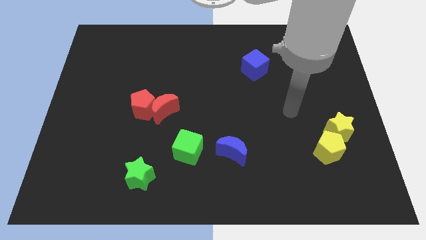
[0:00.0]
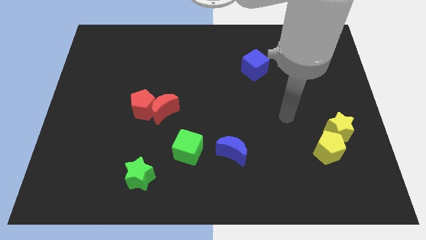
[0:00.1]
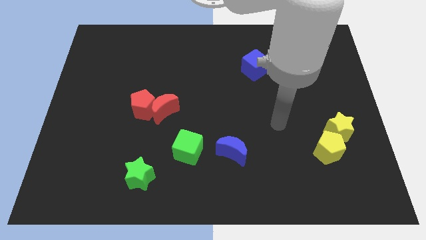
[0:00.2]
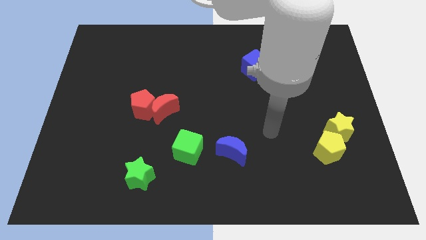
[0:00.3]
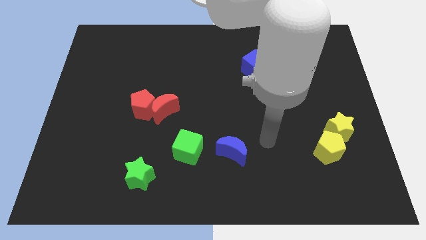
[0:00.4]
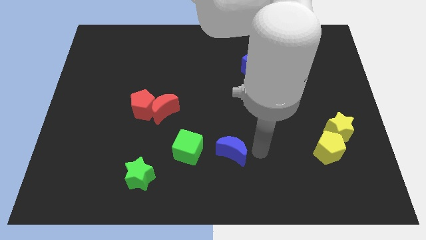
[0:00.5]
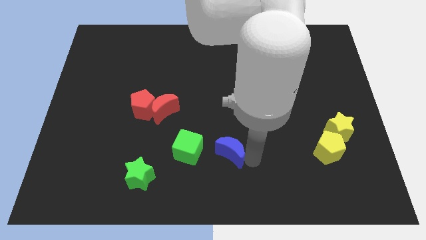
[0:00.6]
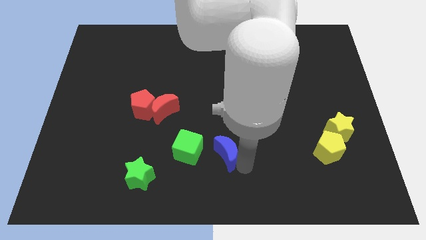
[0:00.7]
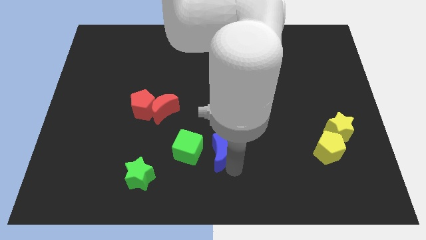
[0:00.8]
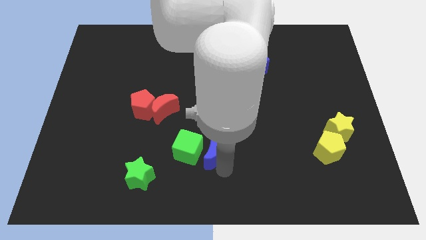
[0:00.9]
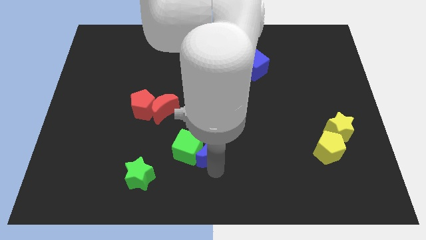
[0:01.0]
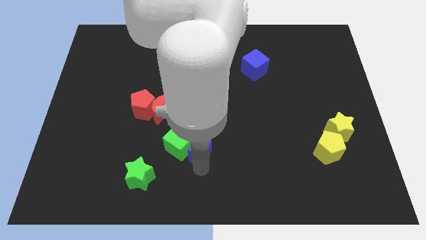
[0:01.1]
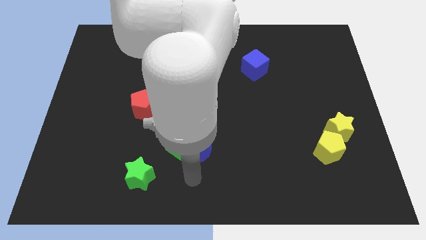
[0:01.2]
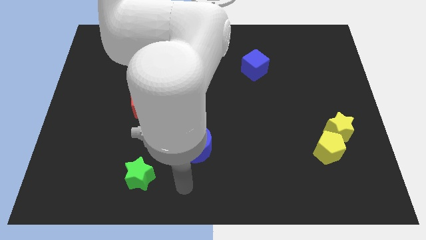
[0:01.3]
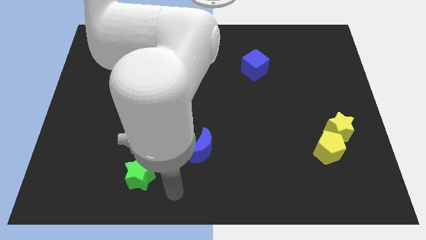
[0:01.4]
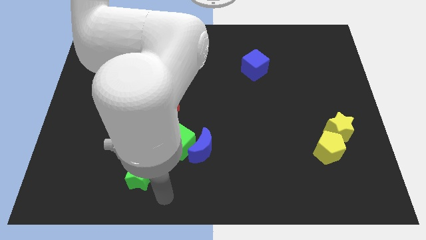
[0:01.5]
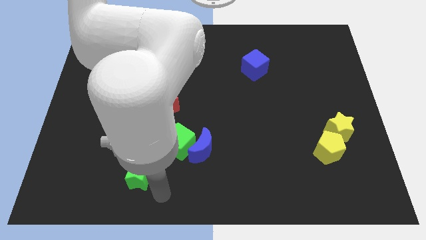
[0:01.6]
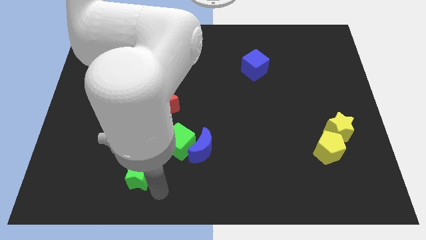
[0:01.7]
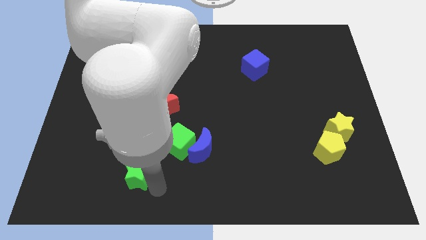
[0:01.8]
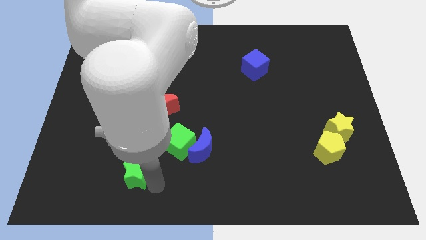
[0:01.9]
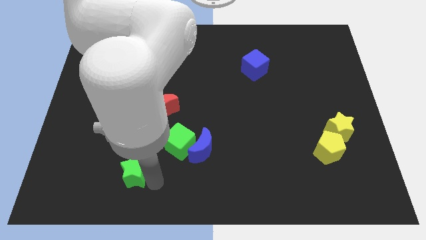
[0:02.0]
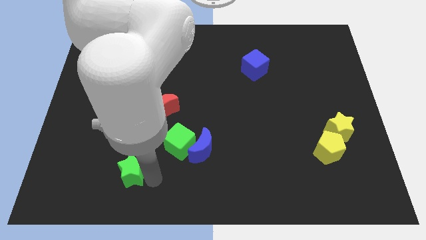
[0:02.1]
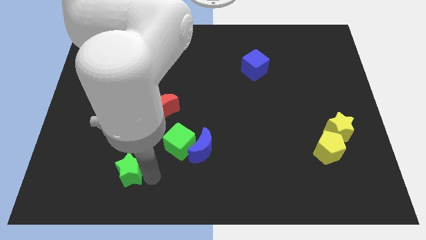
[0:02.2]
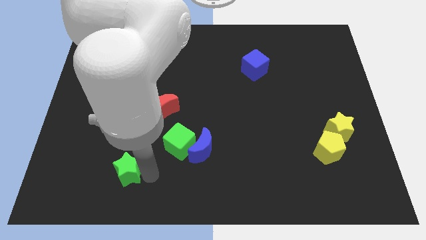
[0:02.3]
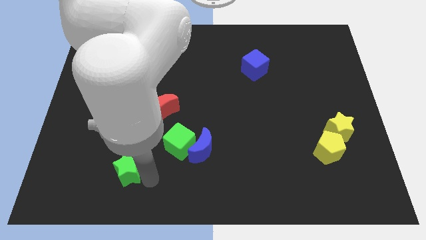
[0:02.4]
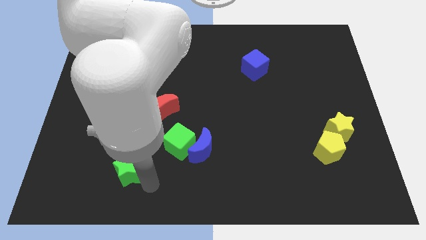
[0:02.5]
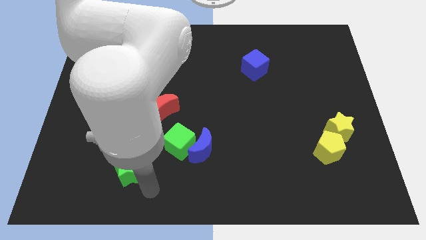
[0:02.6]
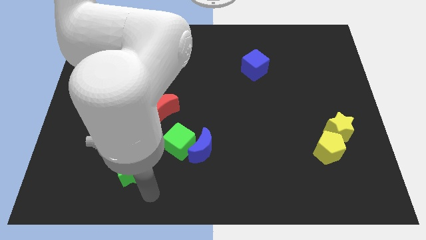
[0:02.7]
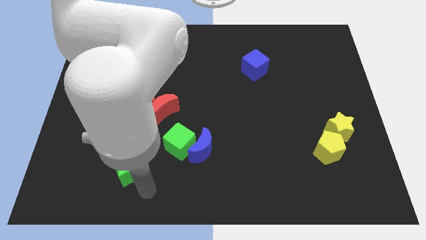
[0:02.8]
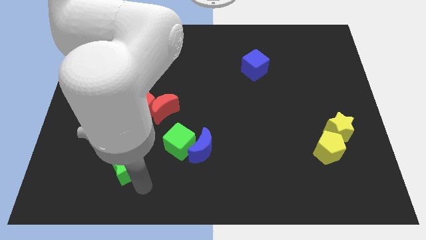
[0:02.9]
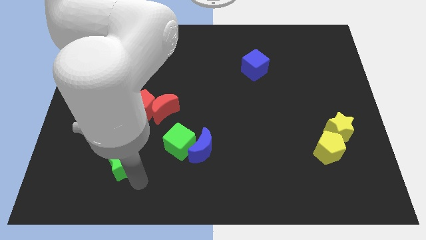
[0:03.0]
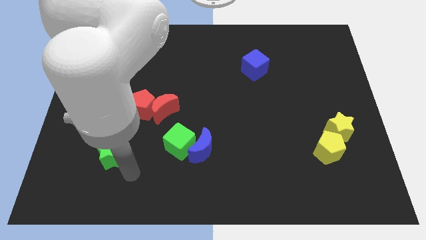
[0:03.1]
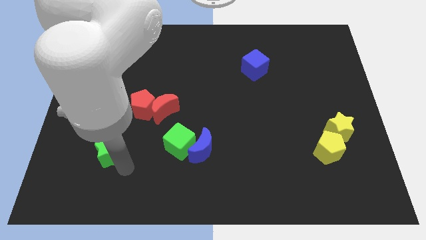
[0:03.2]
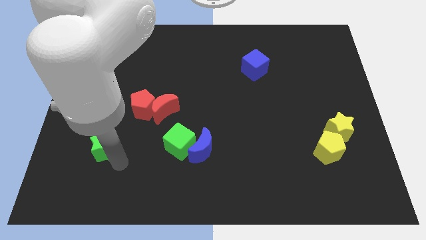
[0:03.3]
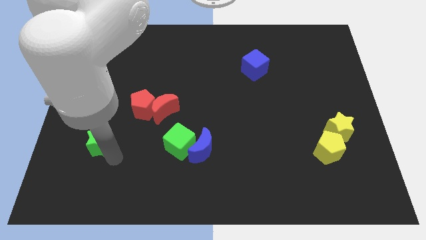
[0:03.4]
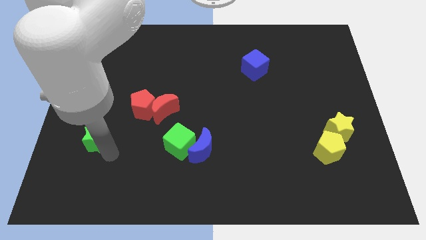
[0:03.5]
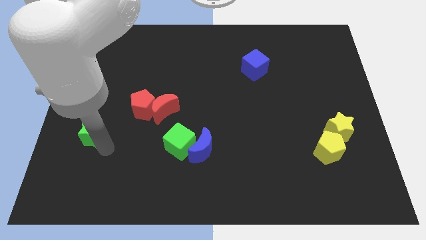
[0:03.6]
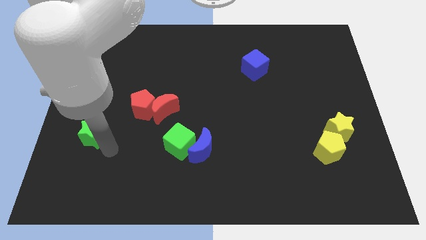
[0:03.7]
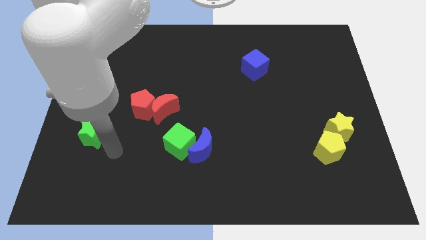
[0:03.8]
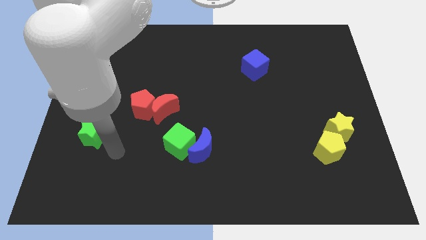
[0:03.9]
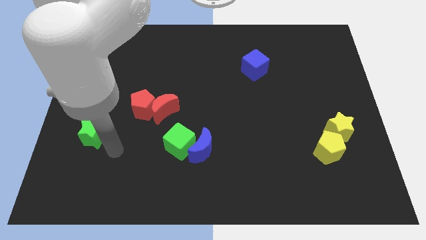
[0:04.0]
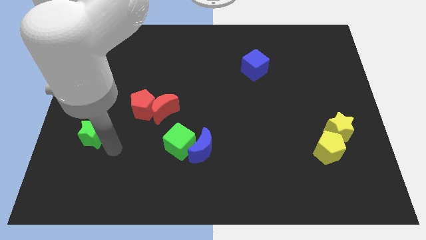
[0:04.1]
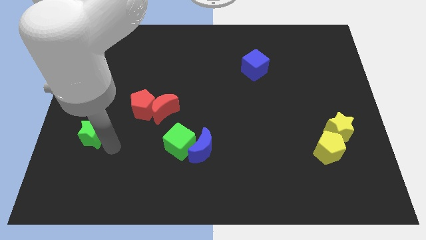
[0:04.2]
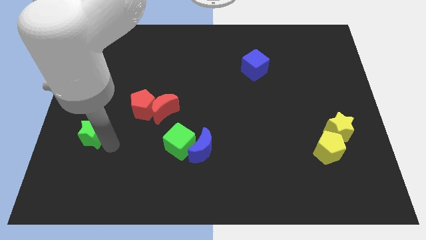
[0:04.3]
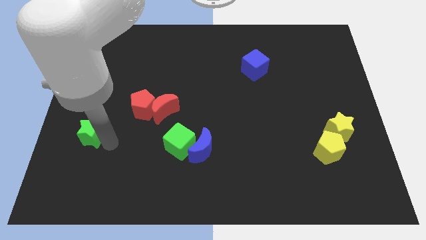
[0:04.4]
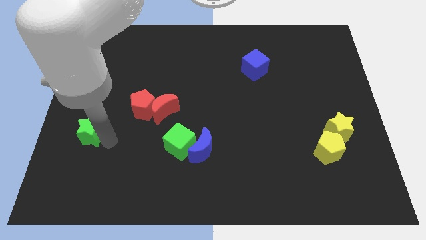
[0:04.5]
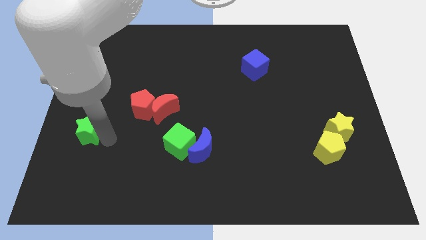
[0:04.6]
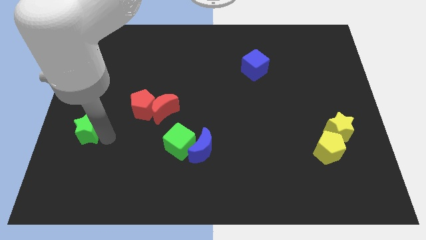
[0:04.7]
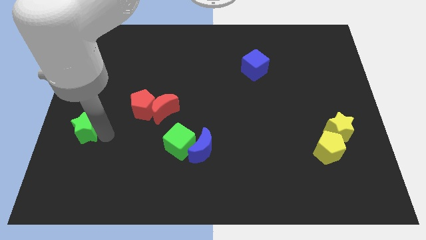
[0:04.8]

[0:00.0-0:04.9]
put the green star to the left side

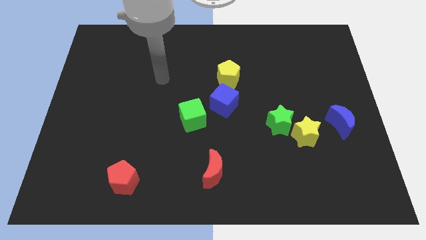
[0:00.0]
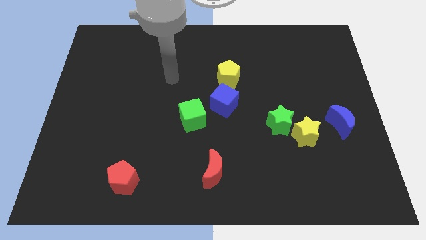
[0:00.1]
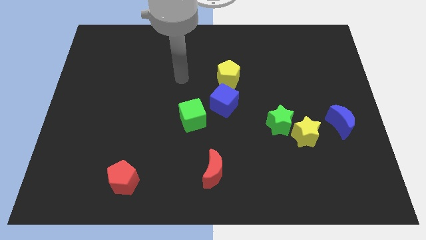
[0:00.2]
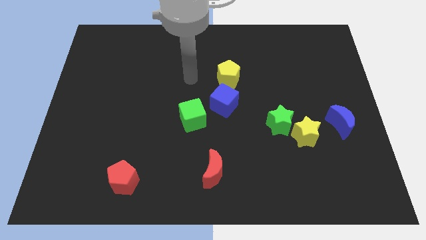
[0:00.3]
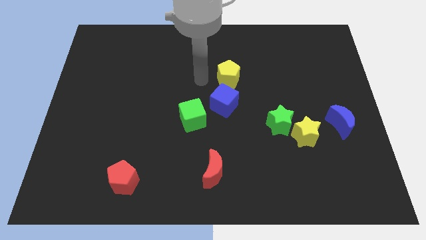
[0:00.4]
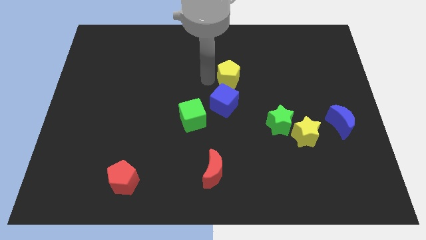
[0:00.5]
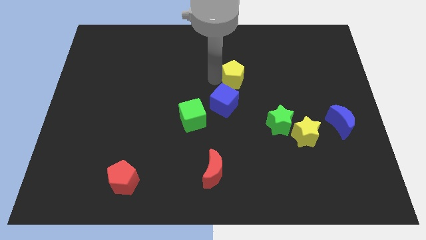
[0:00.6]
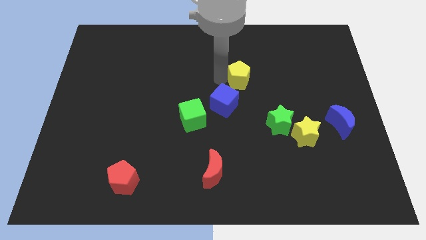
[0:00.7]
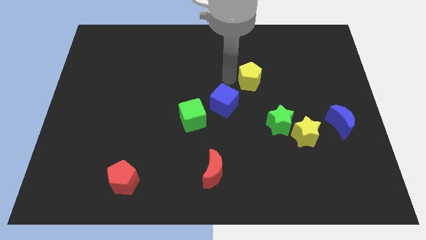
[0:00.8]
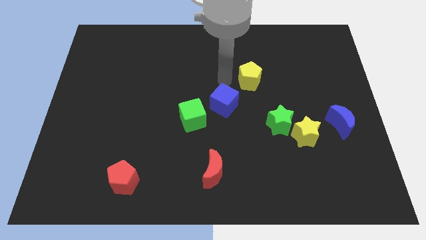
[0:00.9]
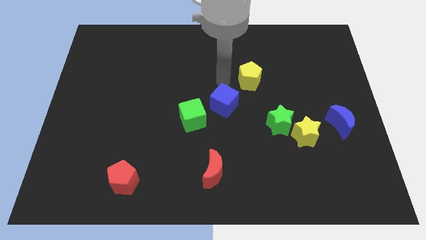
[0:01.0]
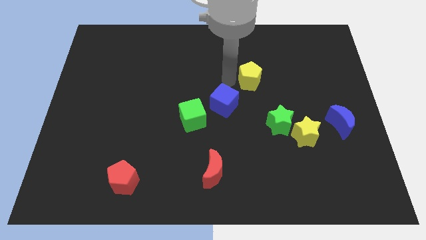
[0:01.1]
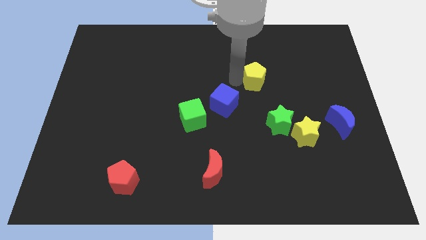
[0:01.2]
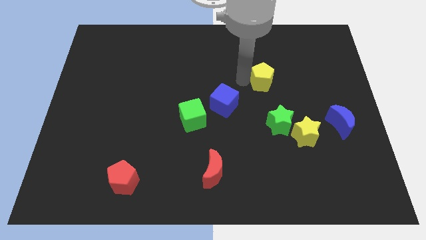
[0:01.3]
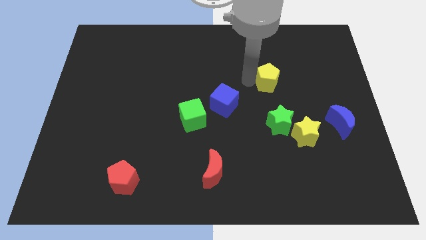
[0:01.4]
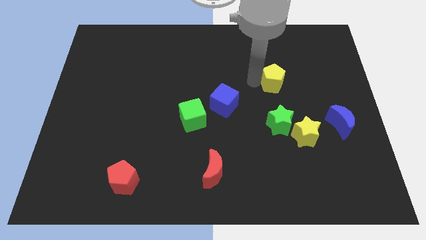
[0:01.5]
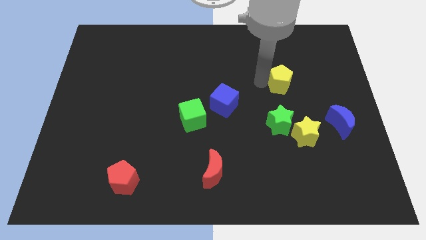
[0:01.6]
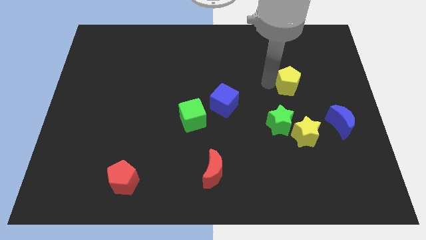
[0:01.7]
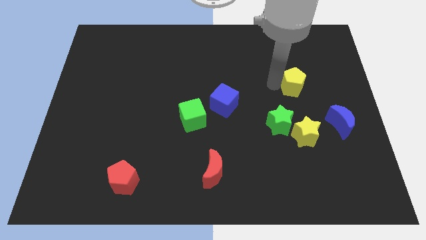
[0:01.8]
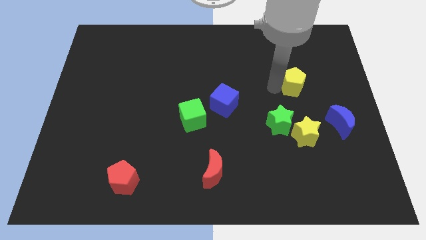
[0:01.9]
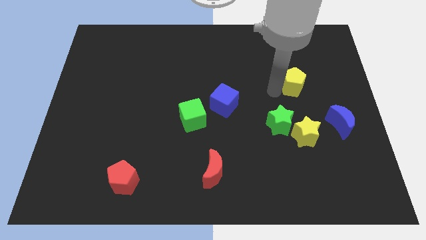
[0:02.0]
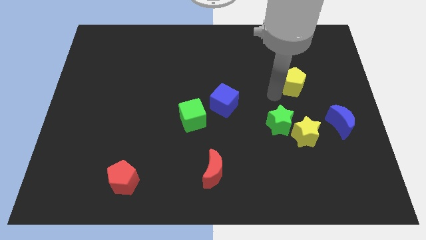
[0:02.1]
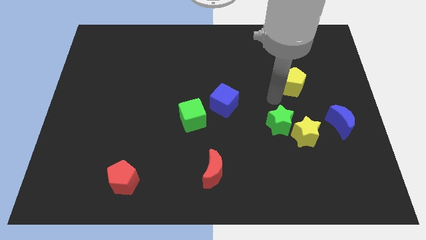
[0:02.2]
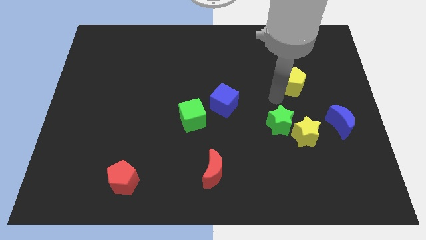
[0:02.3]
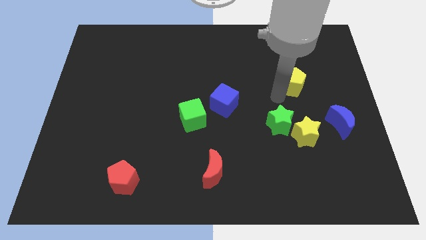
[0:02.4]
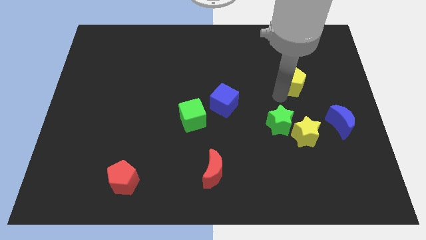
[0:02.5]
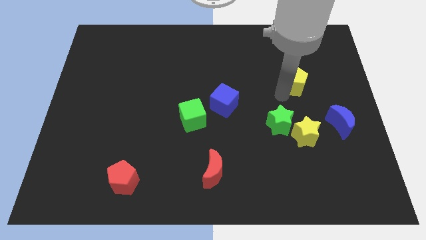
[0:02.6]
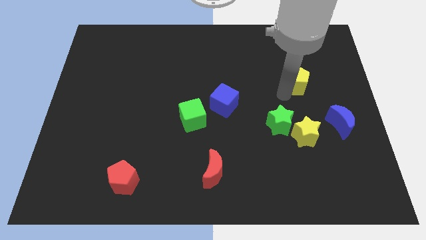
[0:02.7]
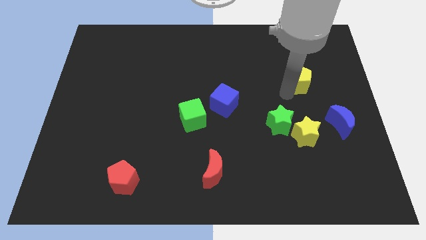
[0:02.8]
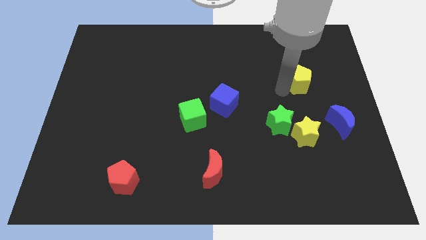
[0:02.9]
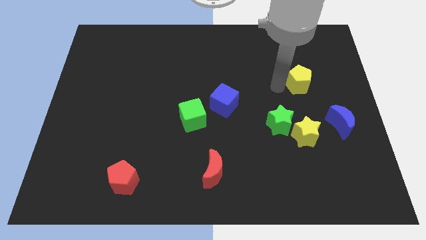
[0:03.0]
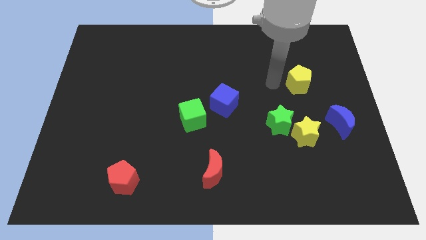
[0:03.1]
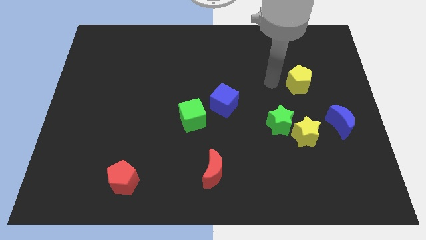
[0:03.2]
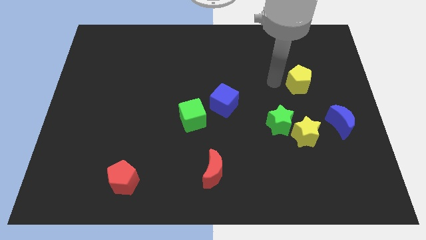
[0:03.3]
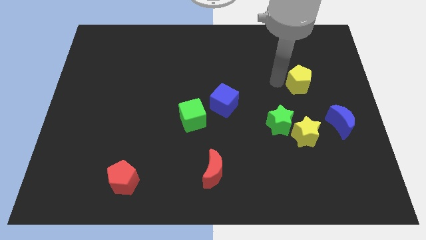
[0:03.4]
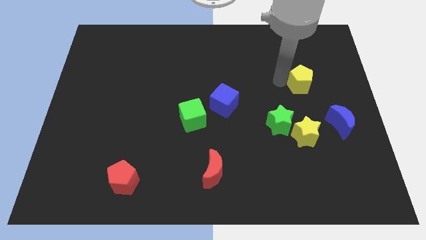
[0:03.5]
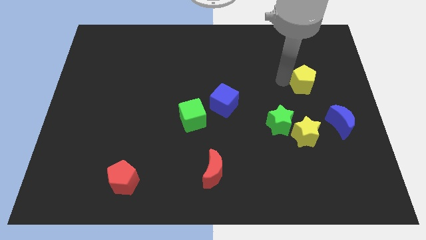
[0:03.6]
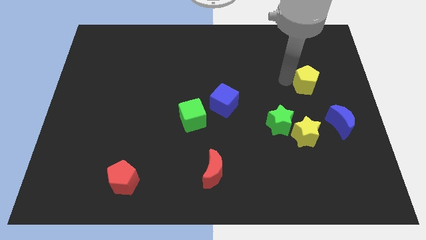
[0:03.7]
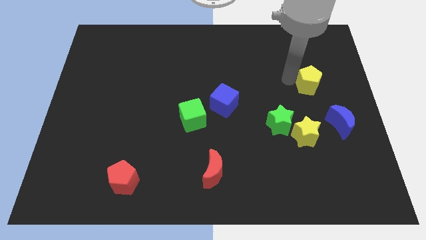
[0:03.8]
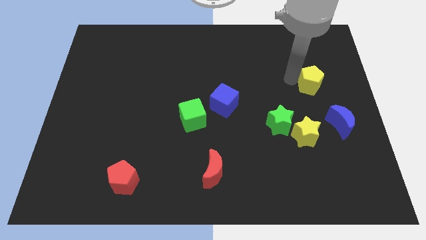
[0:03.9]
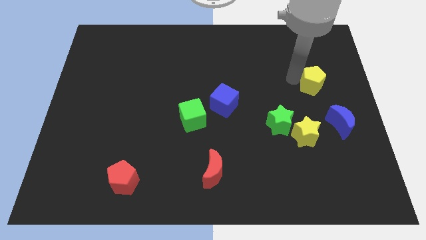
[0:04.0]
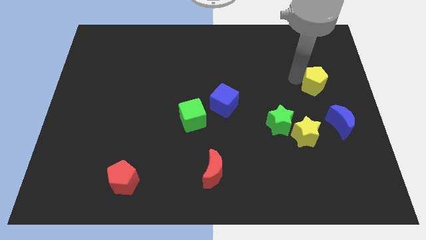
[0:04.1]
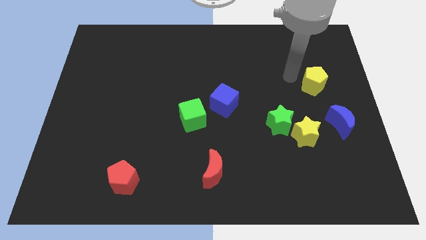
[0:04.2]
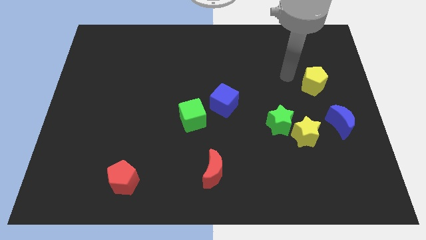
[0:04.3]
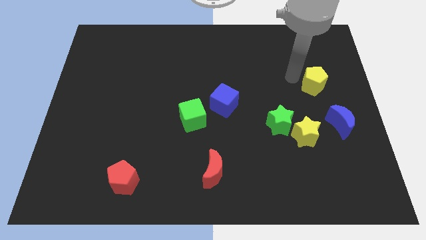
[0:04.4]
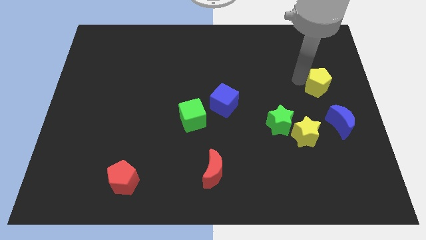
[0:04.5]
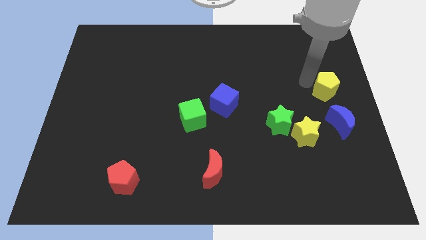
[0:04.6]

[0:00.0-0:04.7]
push the yellow pentagon to the right side
